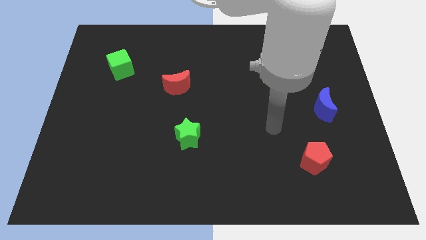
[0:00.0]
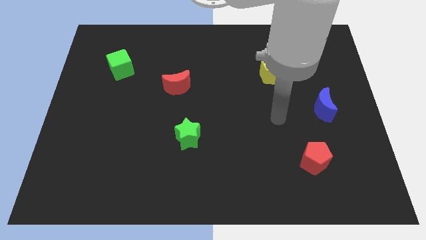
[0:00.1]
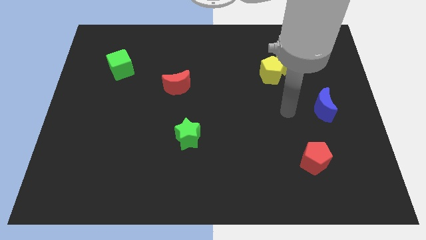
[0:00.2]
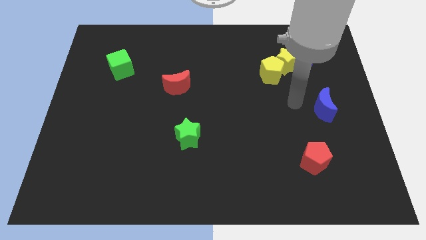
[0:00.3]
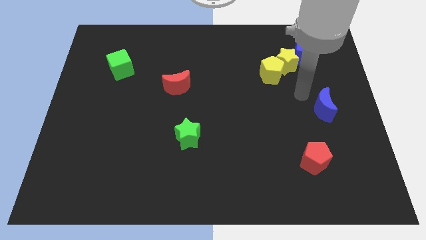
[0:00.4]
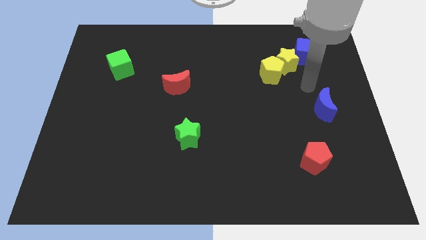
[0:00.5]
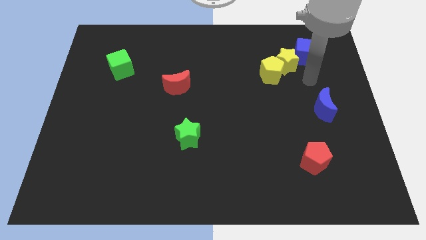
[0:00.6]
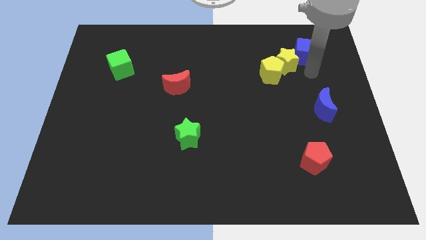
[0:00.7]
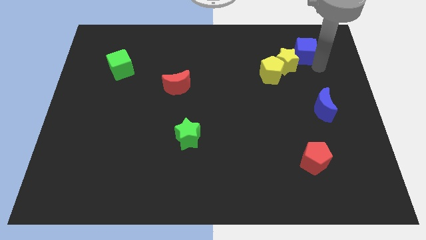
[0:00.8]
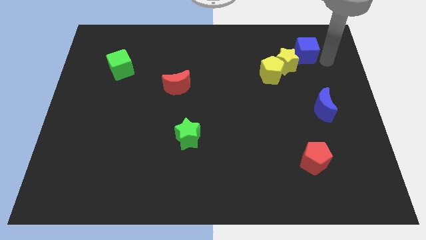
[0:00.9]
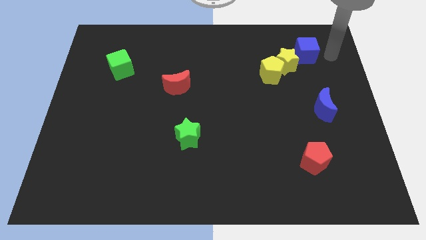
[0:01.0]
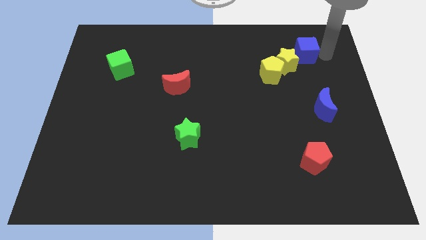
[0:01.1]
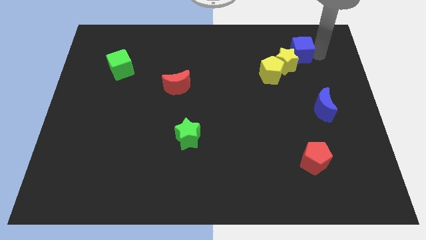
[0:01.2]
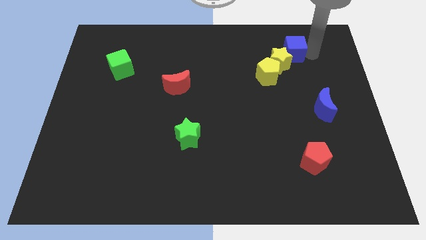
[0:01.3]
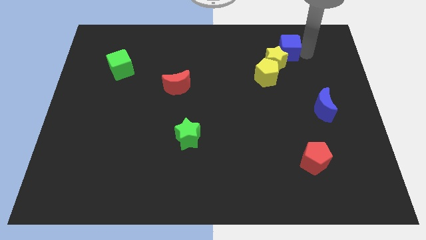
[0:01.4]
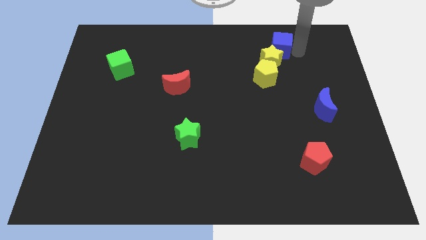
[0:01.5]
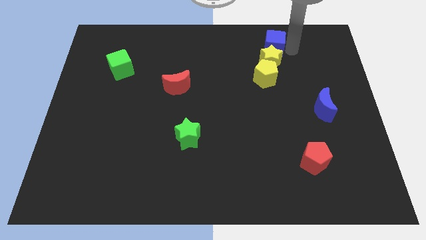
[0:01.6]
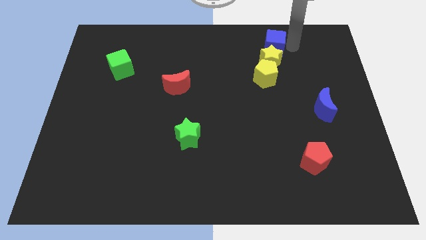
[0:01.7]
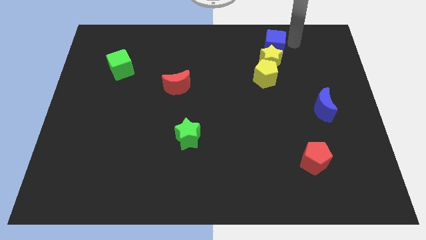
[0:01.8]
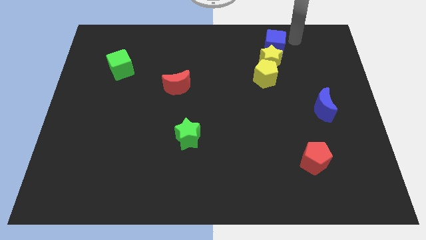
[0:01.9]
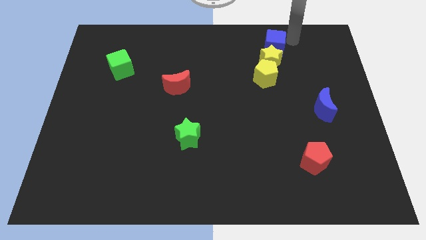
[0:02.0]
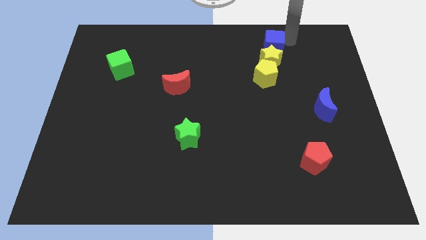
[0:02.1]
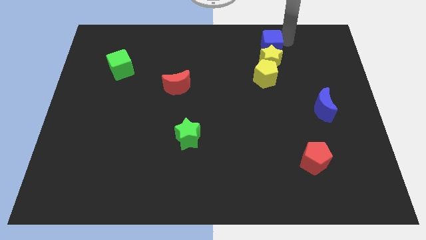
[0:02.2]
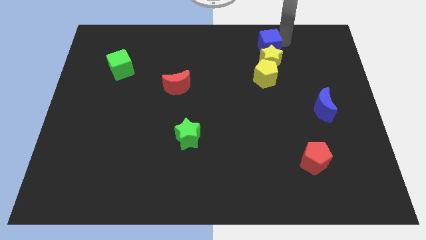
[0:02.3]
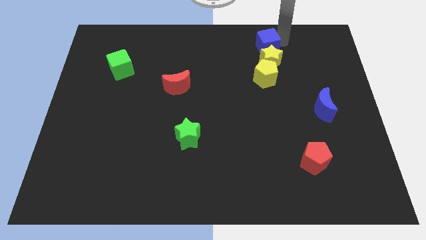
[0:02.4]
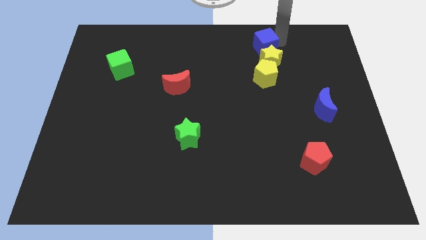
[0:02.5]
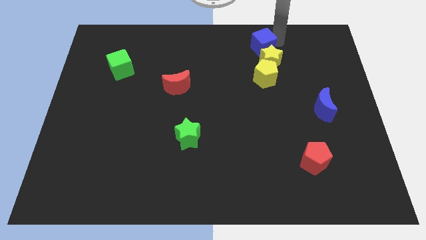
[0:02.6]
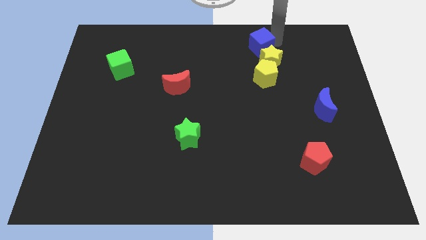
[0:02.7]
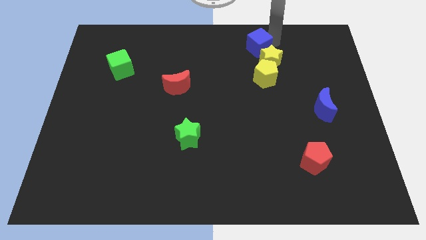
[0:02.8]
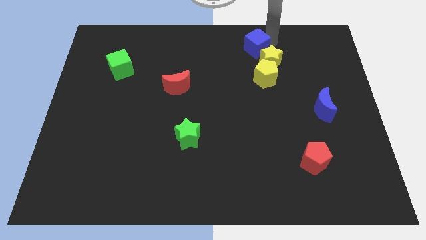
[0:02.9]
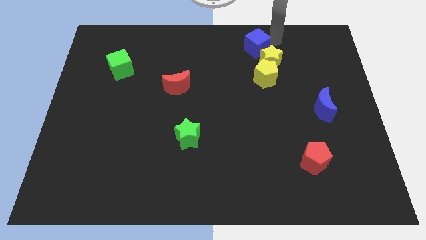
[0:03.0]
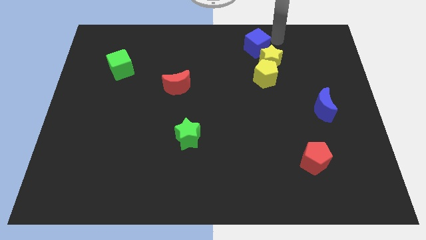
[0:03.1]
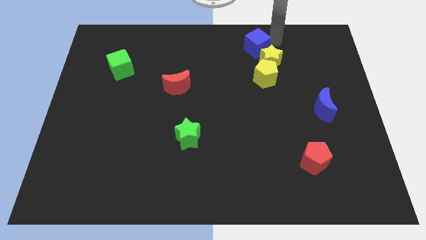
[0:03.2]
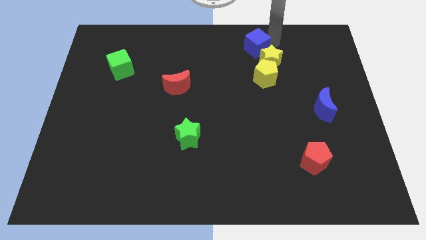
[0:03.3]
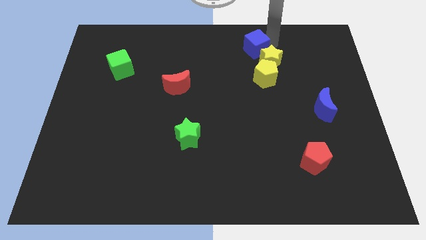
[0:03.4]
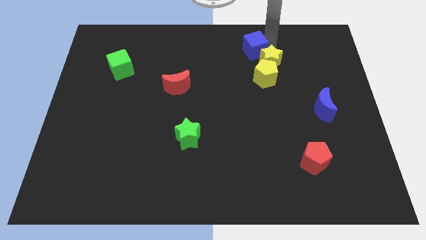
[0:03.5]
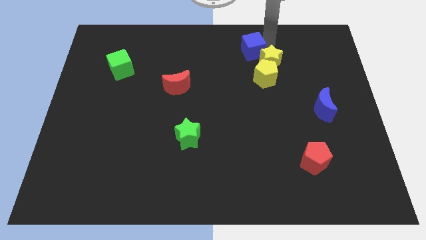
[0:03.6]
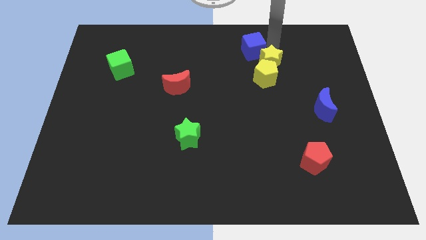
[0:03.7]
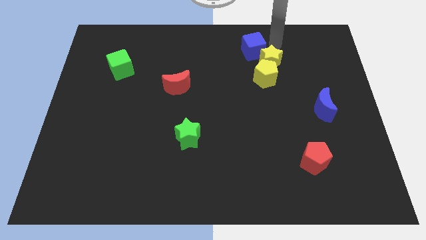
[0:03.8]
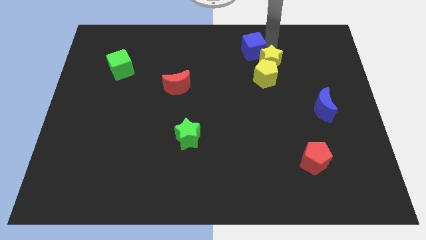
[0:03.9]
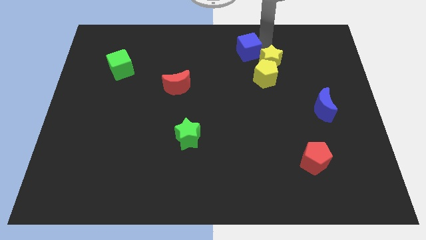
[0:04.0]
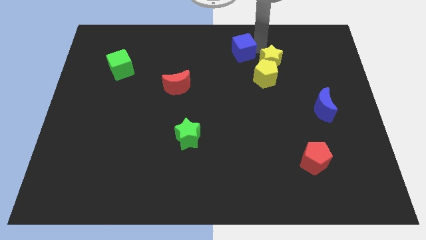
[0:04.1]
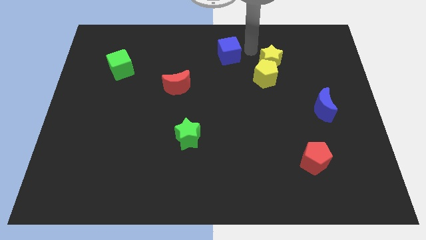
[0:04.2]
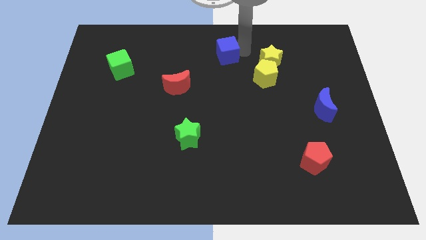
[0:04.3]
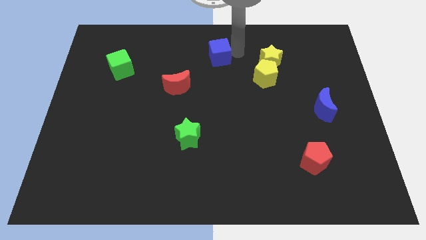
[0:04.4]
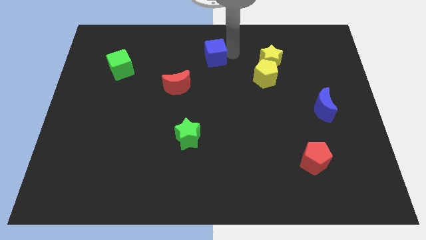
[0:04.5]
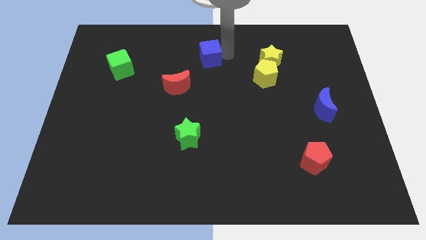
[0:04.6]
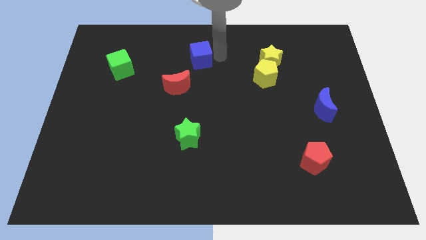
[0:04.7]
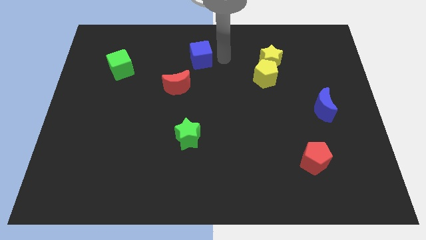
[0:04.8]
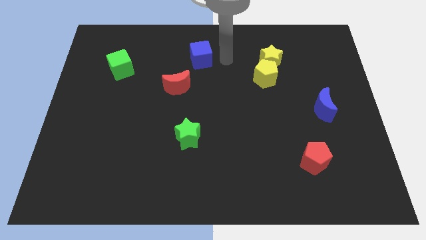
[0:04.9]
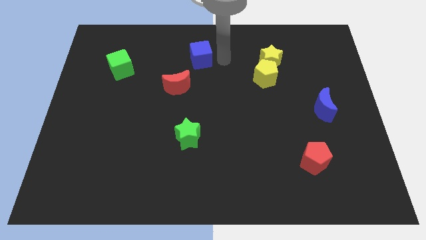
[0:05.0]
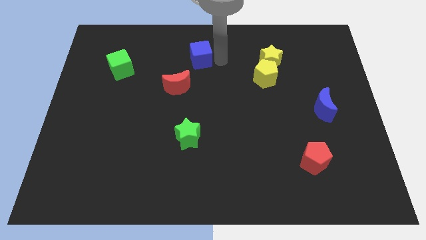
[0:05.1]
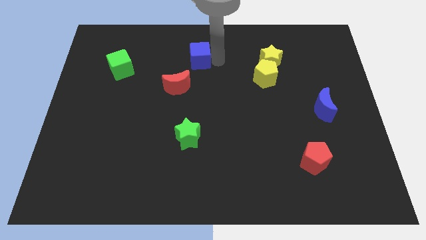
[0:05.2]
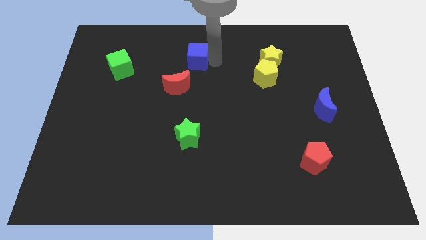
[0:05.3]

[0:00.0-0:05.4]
put the blue cube to the top side of the red moon

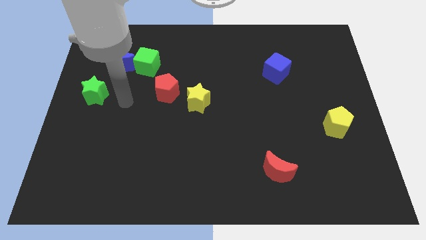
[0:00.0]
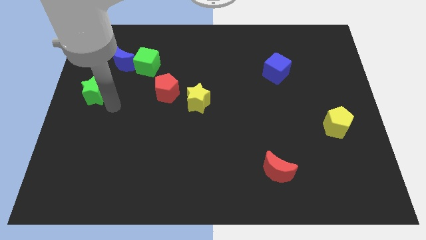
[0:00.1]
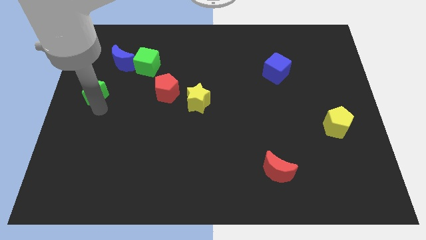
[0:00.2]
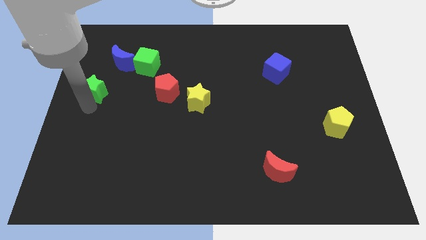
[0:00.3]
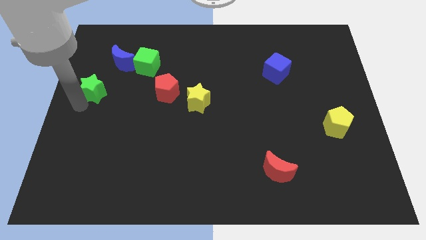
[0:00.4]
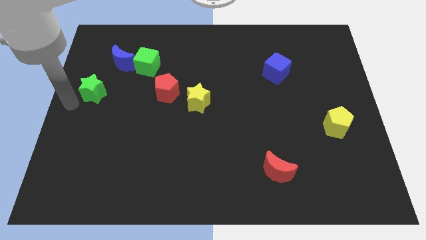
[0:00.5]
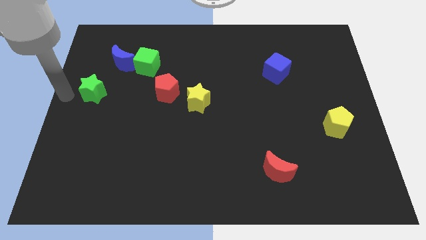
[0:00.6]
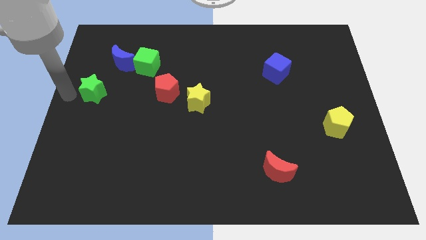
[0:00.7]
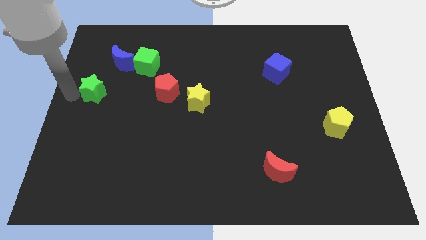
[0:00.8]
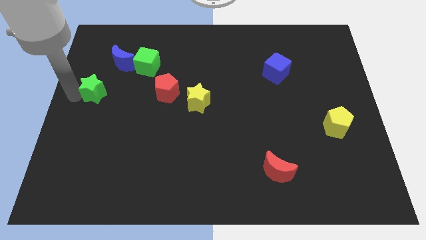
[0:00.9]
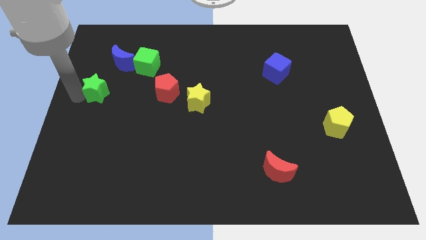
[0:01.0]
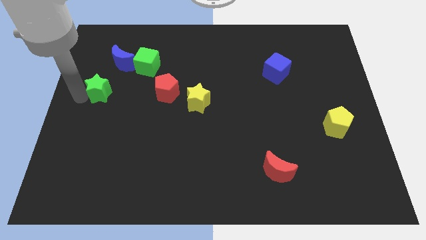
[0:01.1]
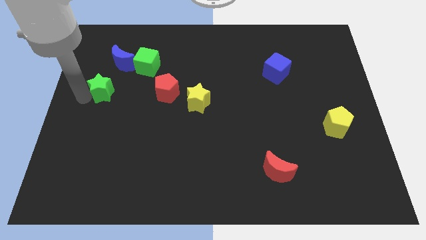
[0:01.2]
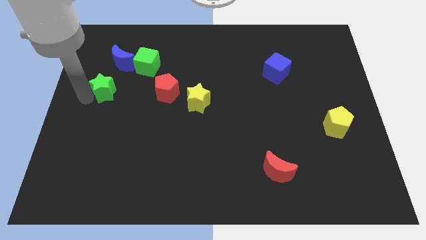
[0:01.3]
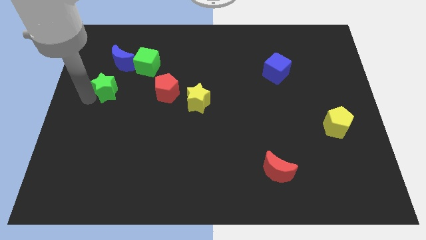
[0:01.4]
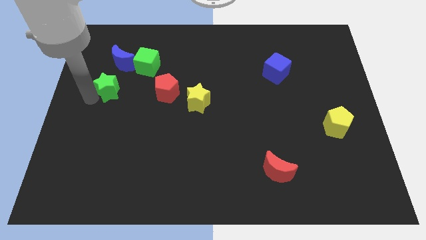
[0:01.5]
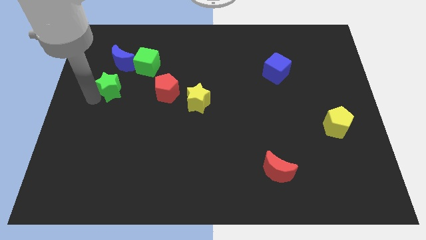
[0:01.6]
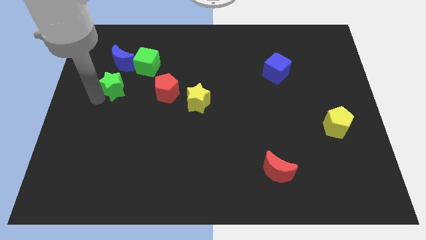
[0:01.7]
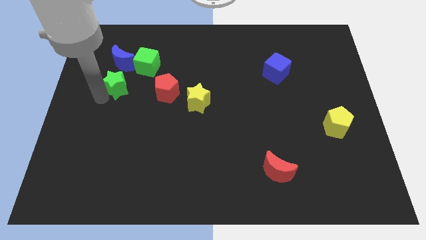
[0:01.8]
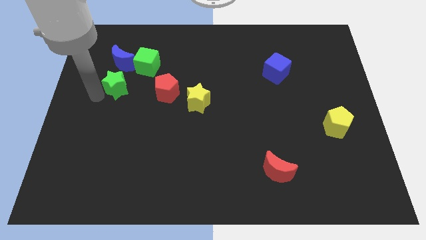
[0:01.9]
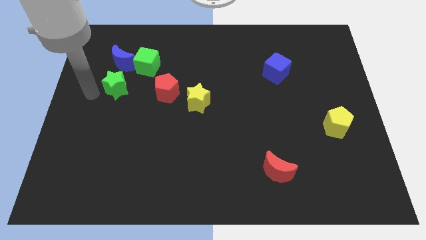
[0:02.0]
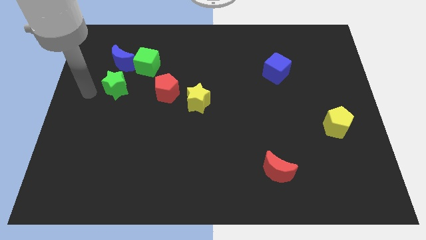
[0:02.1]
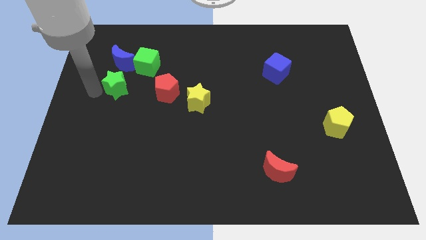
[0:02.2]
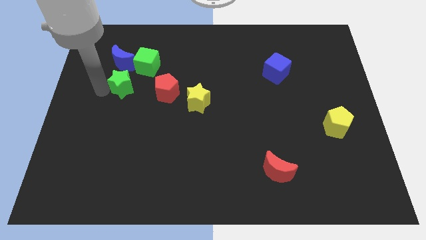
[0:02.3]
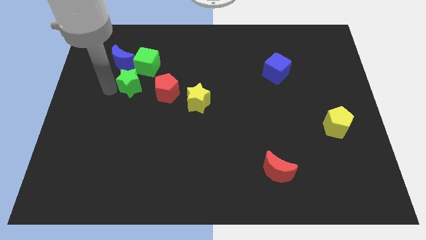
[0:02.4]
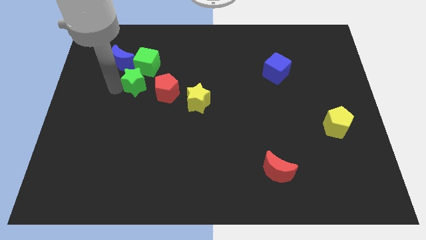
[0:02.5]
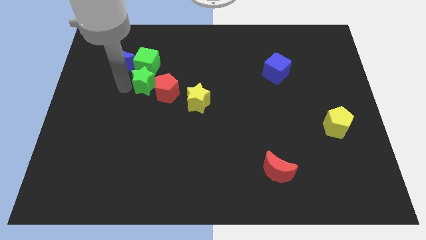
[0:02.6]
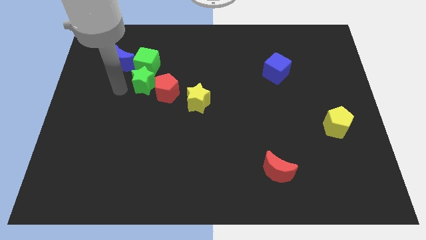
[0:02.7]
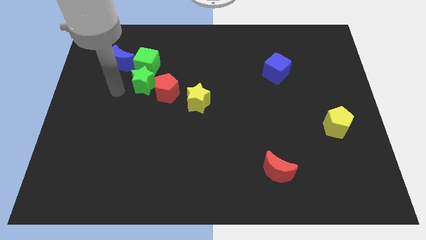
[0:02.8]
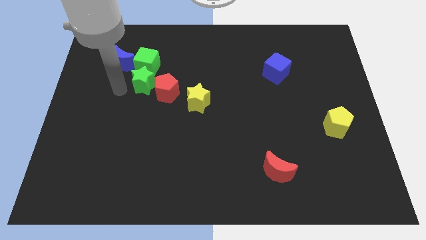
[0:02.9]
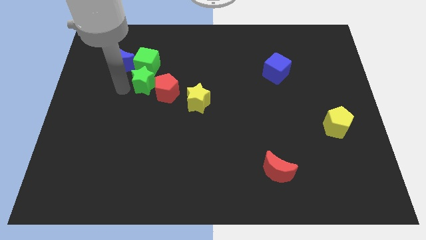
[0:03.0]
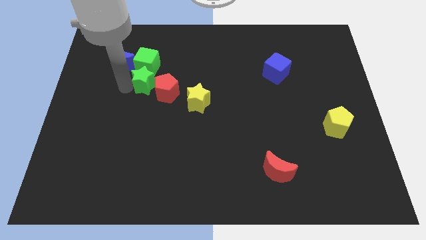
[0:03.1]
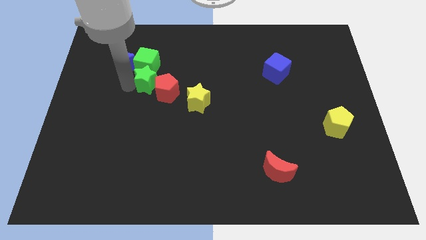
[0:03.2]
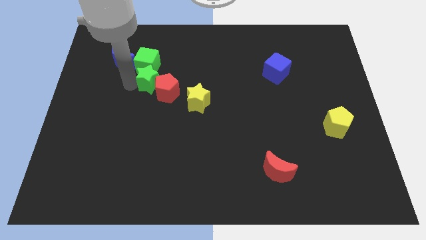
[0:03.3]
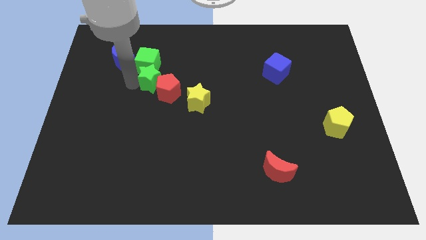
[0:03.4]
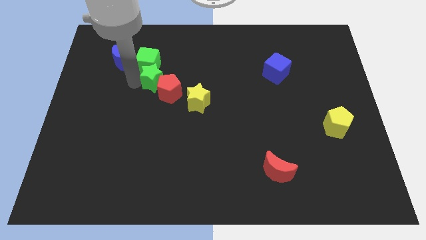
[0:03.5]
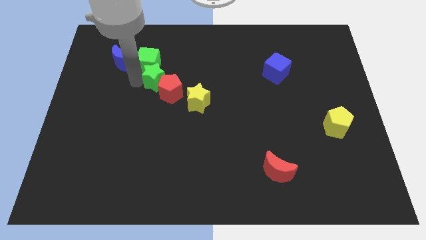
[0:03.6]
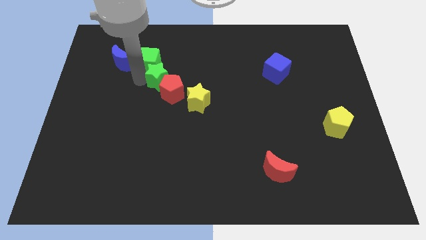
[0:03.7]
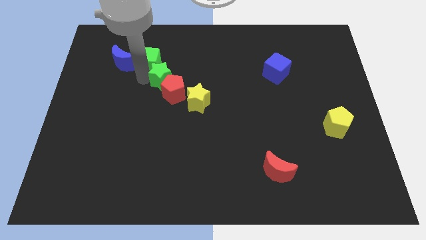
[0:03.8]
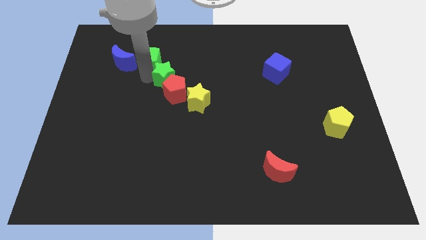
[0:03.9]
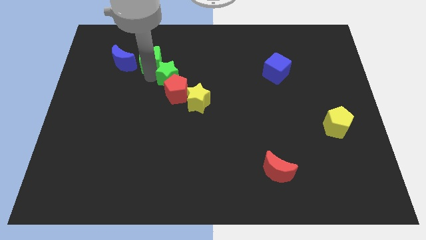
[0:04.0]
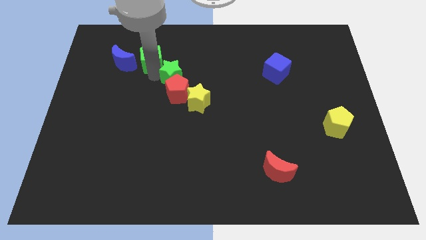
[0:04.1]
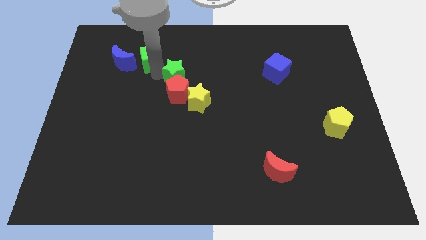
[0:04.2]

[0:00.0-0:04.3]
push the green star to the top right side of the red pentagon
